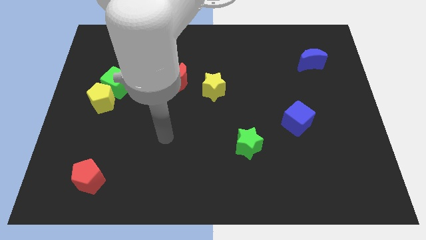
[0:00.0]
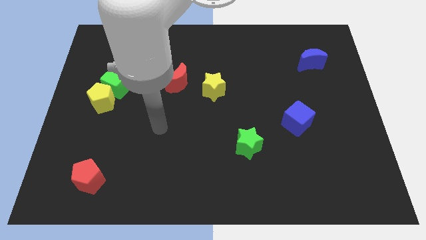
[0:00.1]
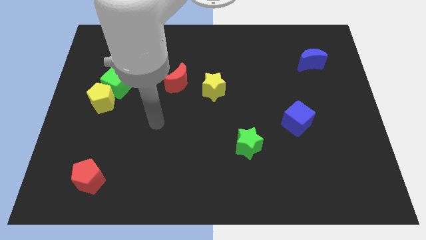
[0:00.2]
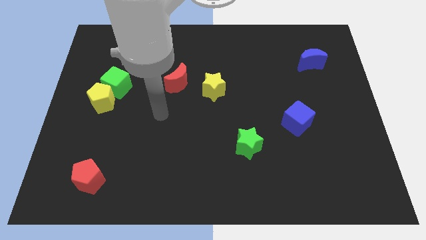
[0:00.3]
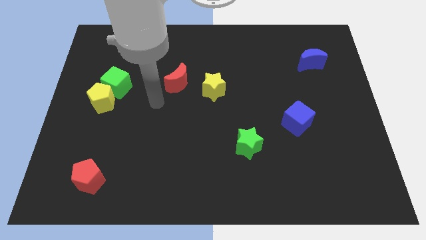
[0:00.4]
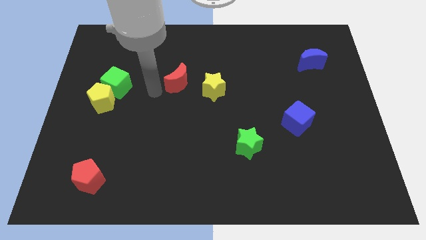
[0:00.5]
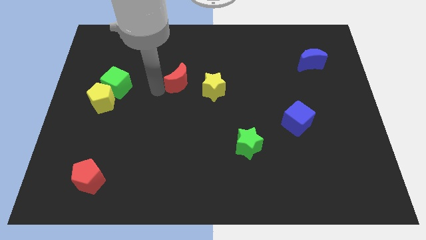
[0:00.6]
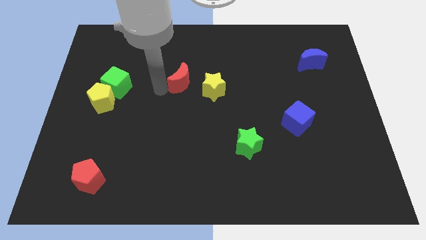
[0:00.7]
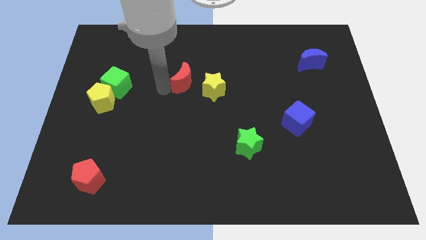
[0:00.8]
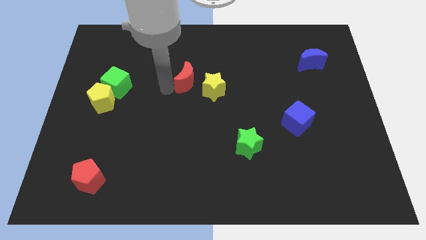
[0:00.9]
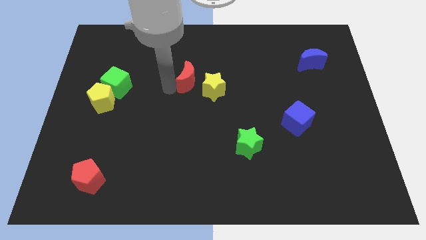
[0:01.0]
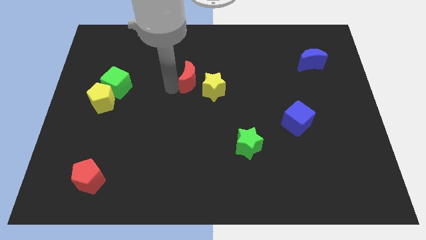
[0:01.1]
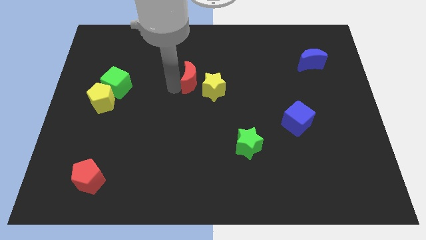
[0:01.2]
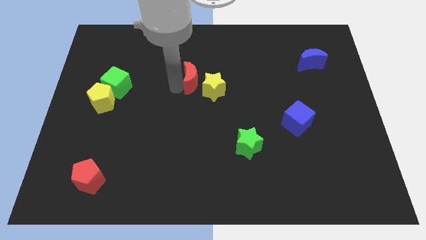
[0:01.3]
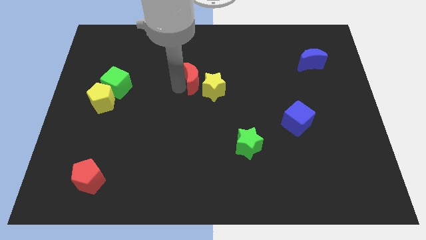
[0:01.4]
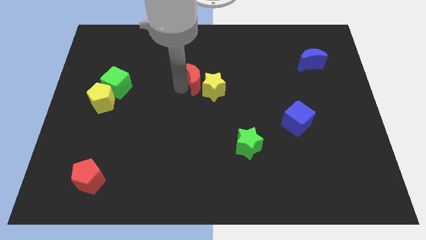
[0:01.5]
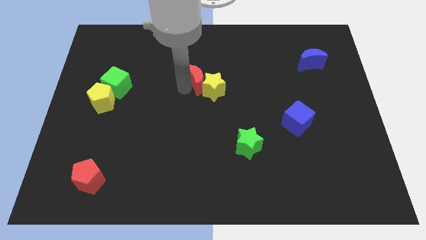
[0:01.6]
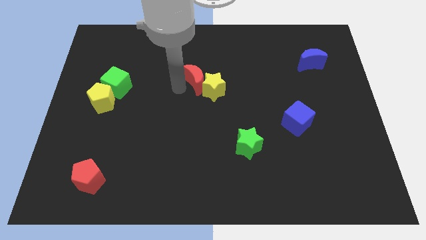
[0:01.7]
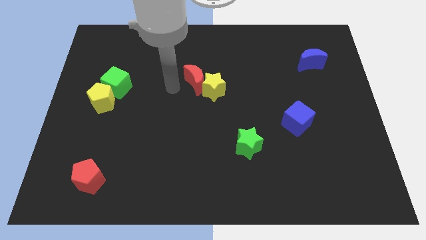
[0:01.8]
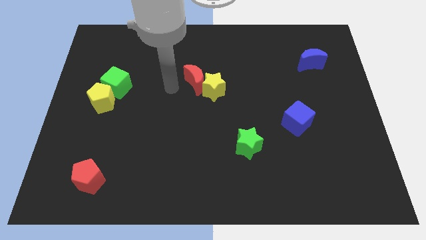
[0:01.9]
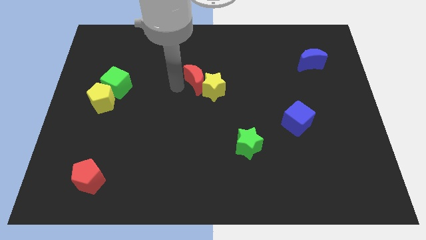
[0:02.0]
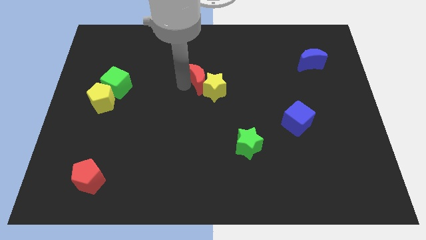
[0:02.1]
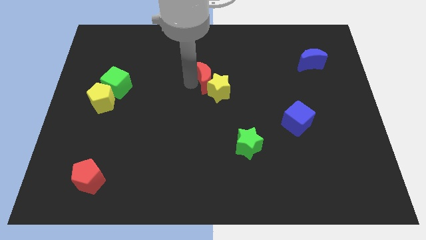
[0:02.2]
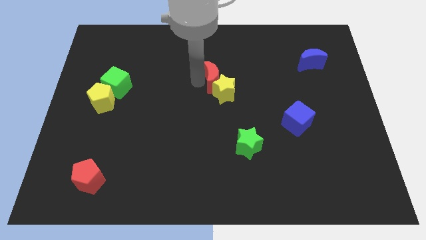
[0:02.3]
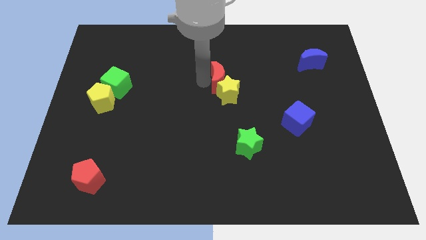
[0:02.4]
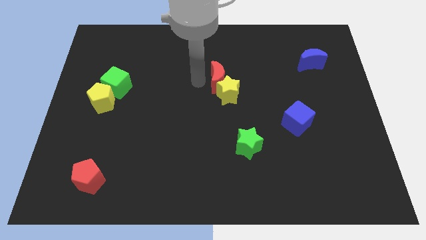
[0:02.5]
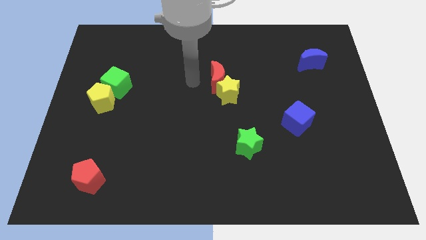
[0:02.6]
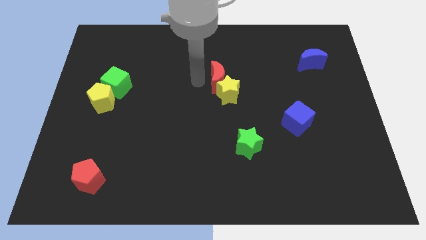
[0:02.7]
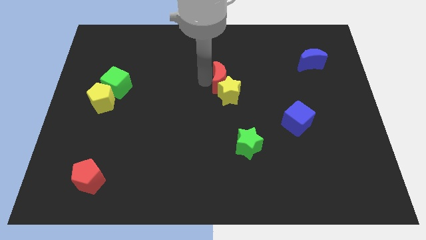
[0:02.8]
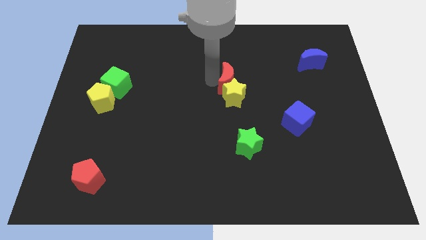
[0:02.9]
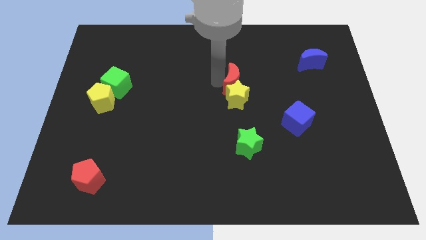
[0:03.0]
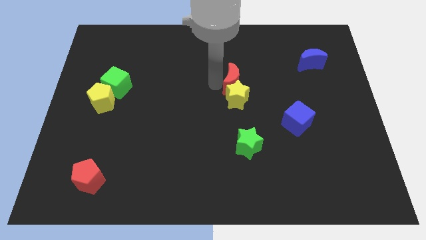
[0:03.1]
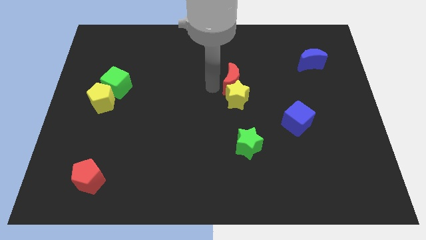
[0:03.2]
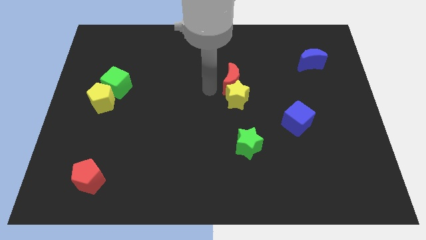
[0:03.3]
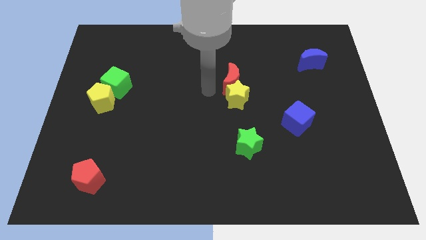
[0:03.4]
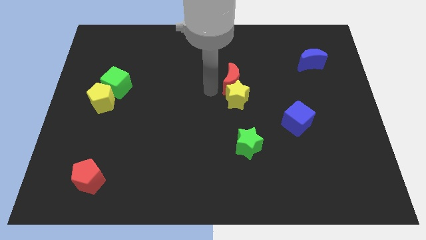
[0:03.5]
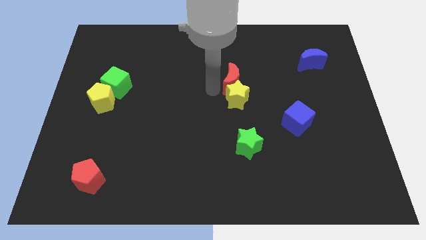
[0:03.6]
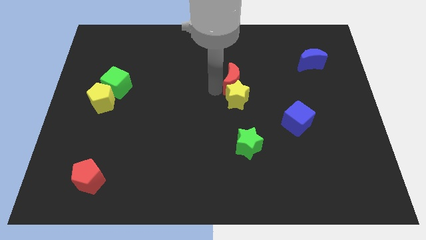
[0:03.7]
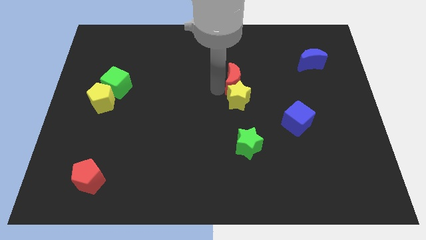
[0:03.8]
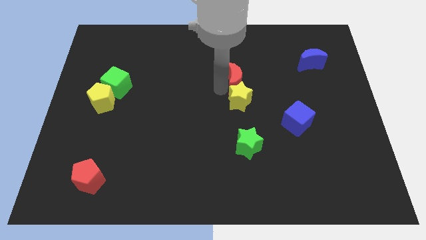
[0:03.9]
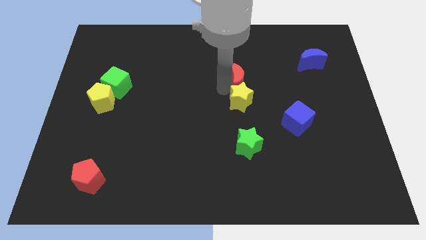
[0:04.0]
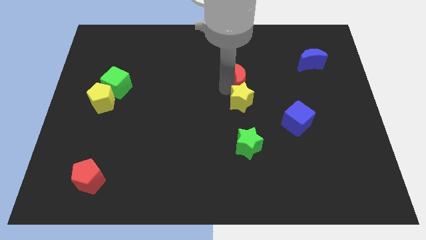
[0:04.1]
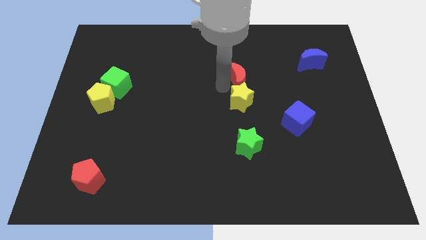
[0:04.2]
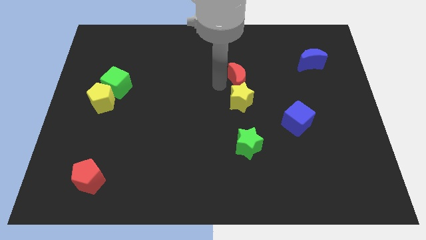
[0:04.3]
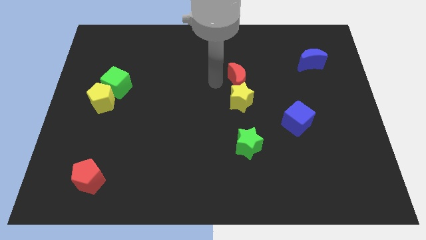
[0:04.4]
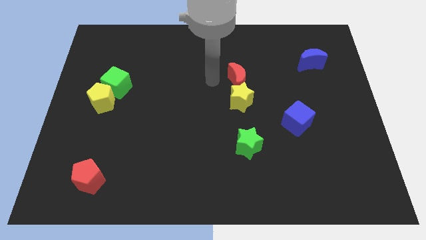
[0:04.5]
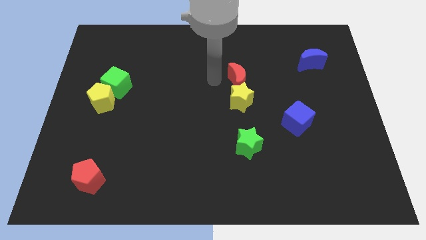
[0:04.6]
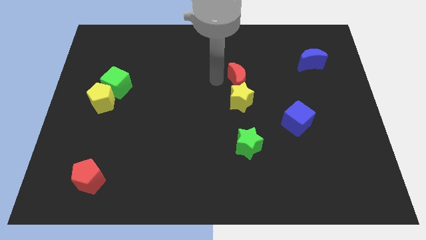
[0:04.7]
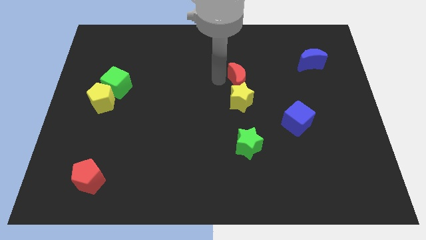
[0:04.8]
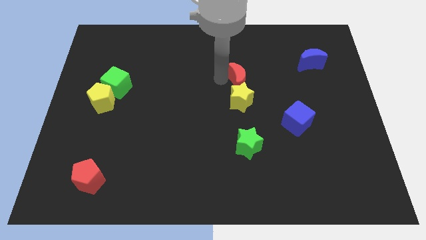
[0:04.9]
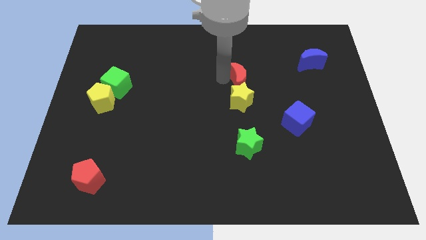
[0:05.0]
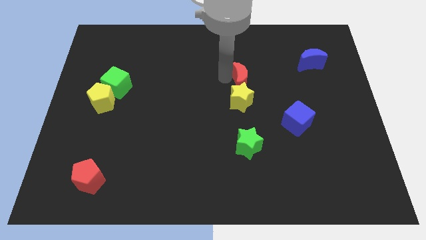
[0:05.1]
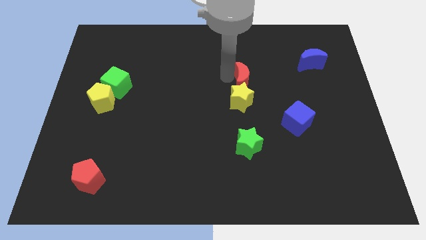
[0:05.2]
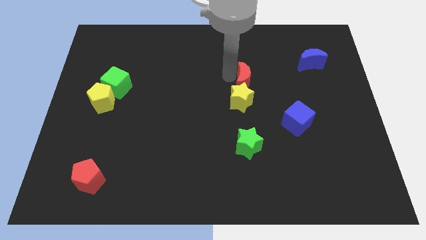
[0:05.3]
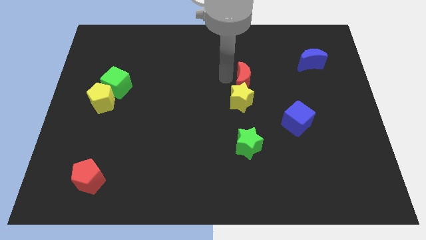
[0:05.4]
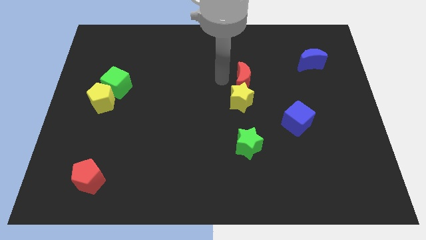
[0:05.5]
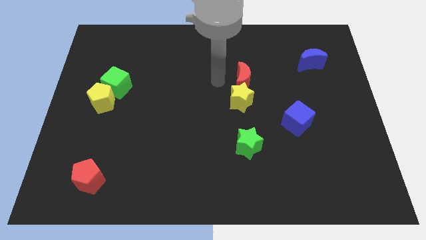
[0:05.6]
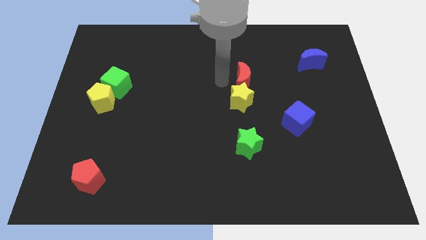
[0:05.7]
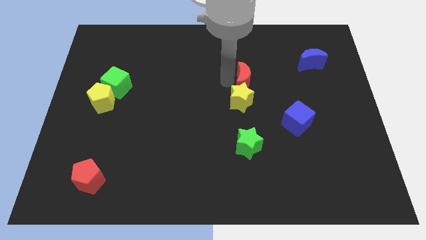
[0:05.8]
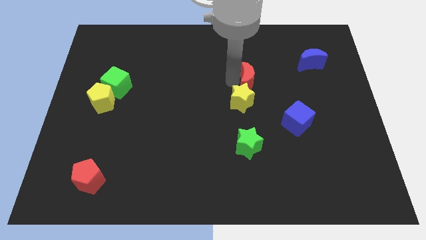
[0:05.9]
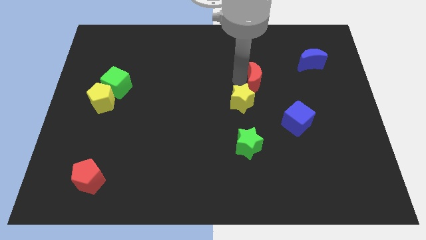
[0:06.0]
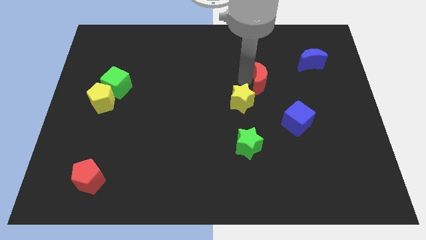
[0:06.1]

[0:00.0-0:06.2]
slide the red moon right

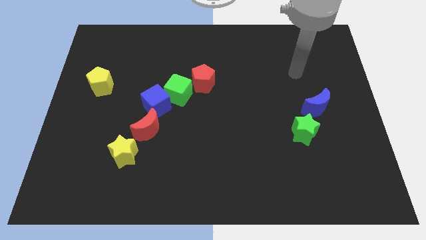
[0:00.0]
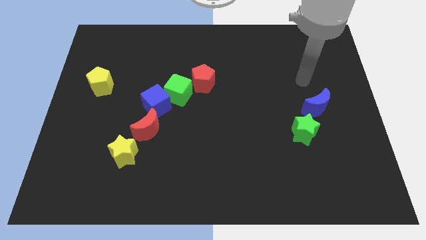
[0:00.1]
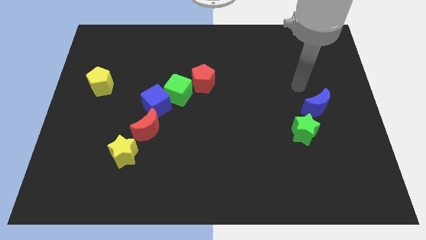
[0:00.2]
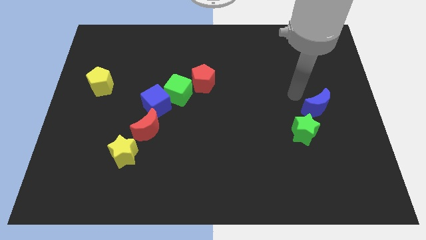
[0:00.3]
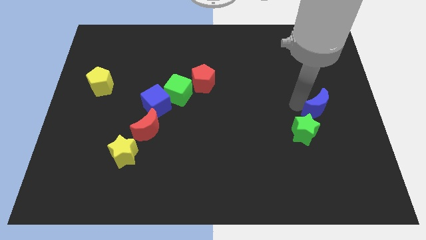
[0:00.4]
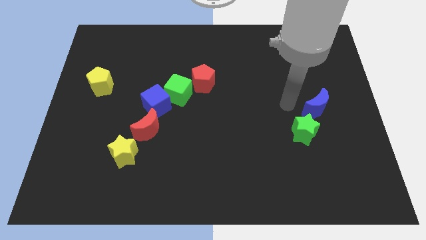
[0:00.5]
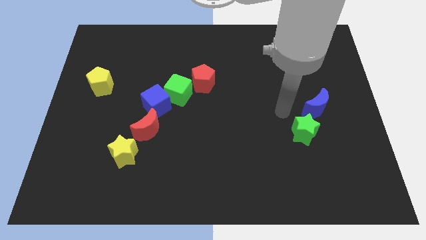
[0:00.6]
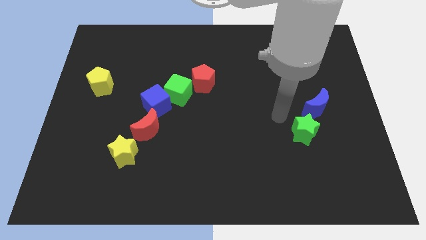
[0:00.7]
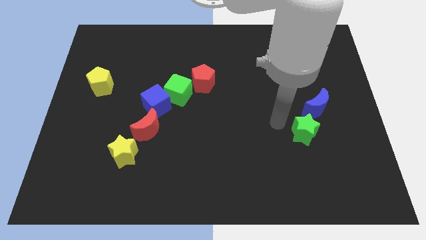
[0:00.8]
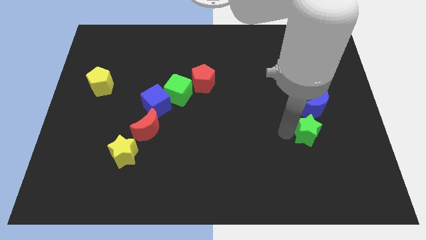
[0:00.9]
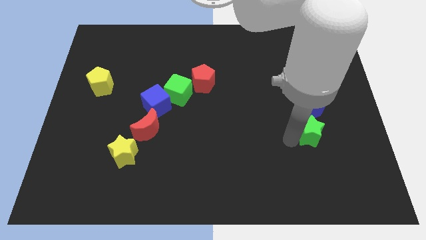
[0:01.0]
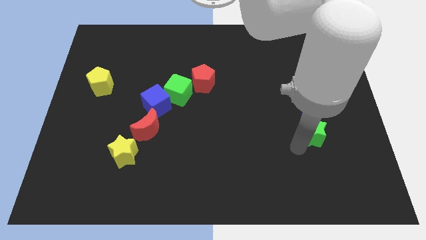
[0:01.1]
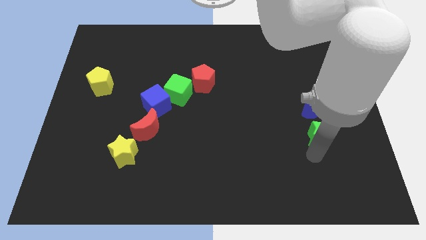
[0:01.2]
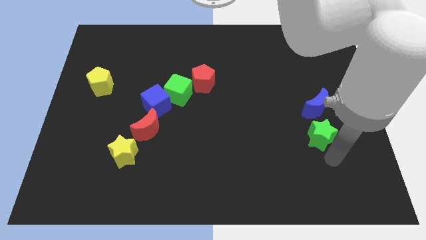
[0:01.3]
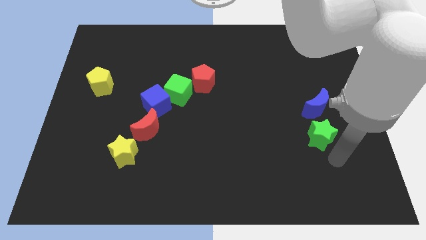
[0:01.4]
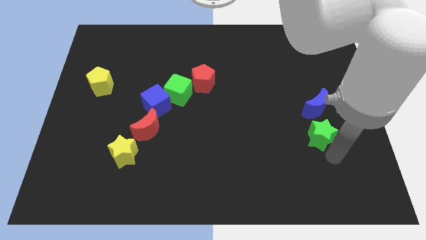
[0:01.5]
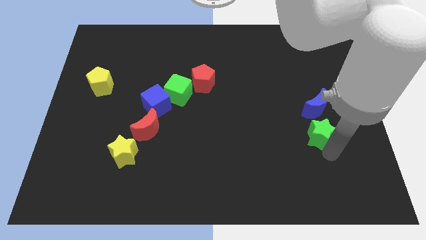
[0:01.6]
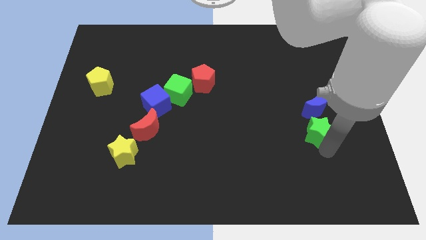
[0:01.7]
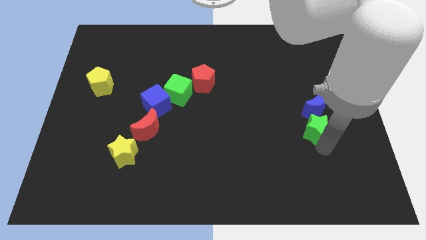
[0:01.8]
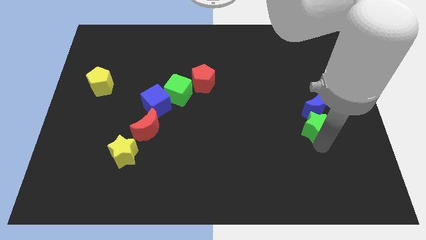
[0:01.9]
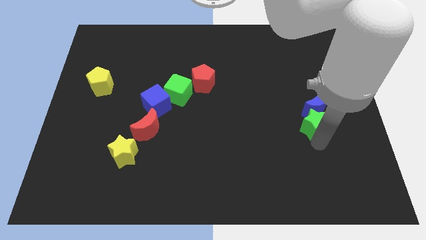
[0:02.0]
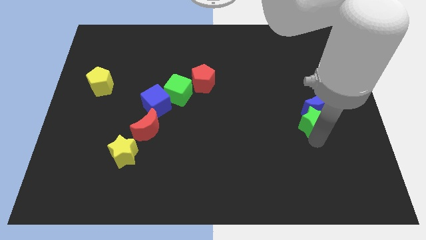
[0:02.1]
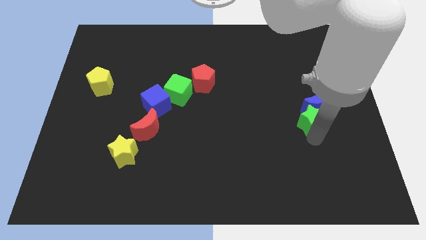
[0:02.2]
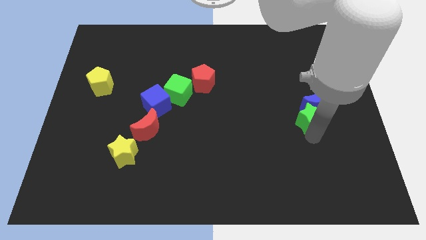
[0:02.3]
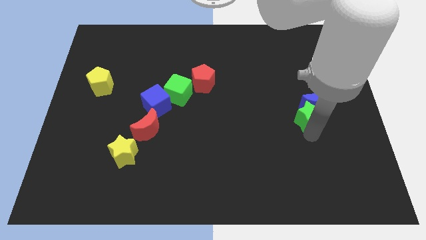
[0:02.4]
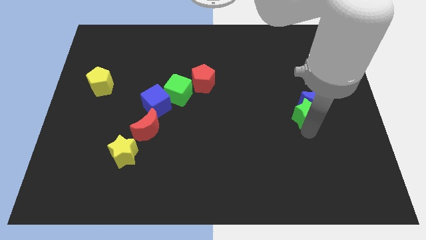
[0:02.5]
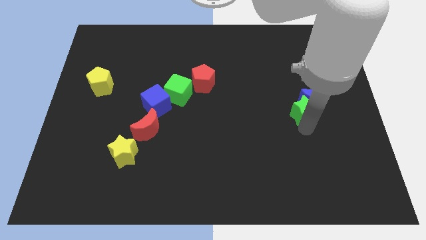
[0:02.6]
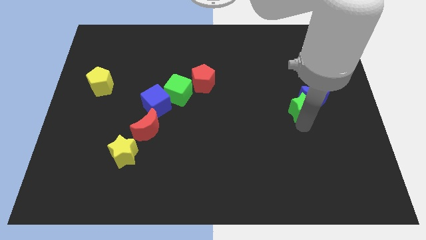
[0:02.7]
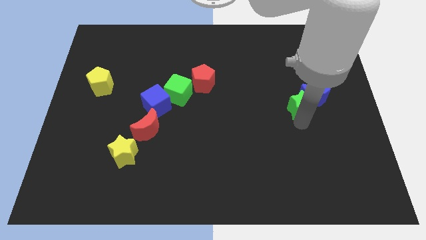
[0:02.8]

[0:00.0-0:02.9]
slightly slide the green star up
